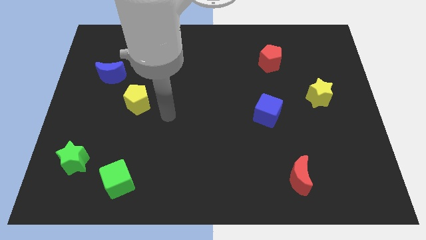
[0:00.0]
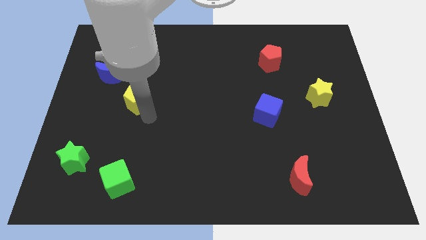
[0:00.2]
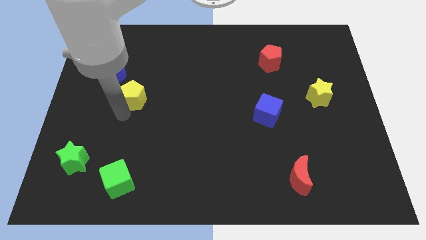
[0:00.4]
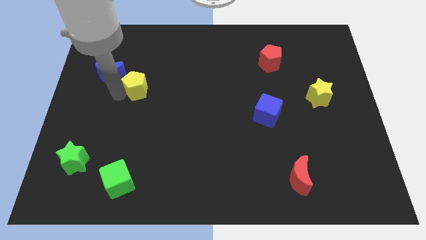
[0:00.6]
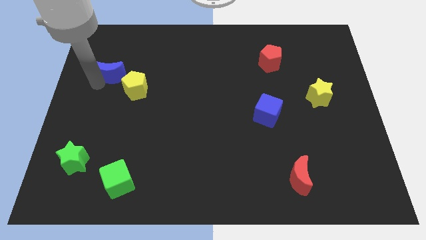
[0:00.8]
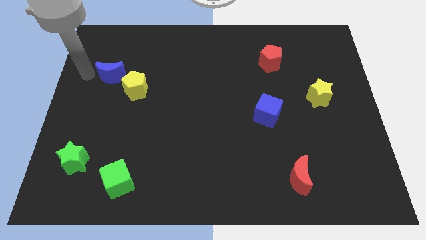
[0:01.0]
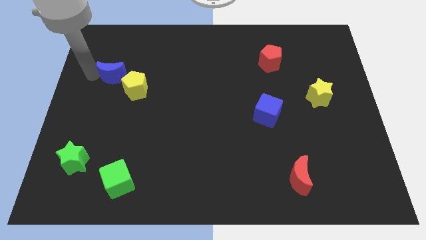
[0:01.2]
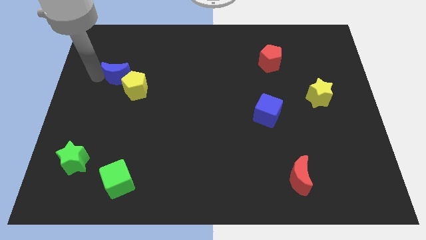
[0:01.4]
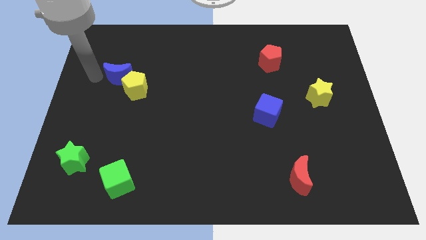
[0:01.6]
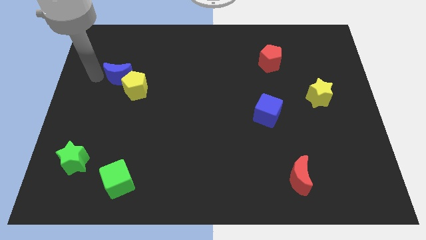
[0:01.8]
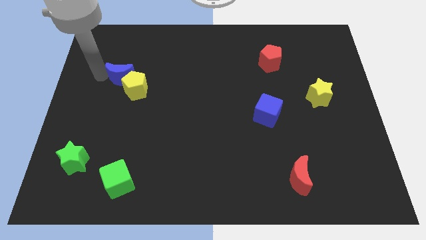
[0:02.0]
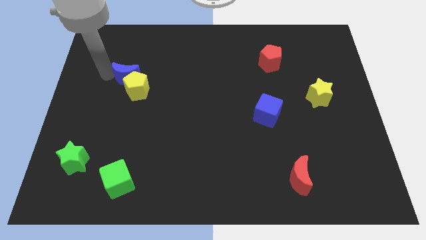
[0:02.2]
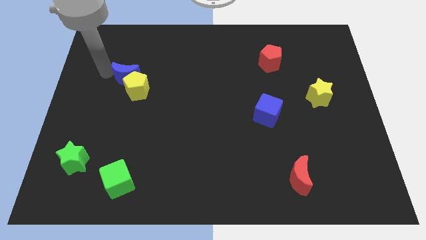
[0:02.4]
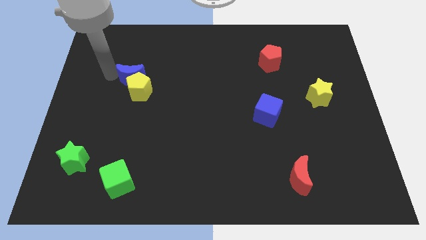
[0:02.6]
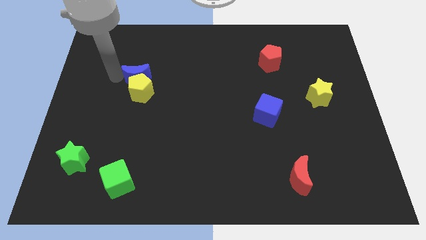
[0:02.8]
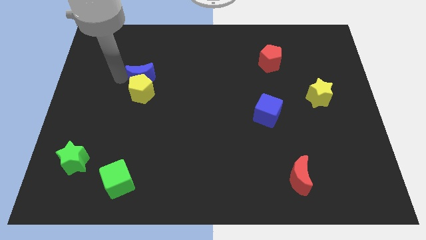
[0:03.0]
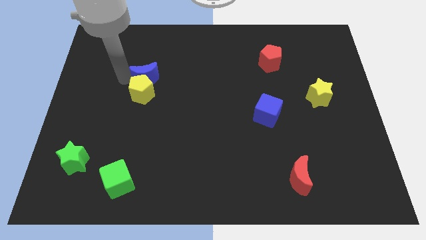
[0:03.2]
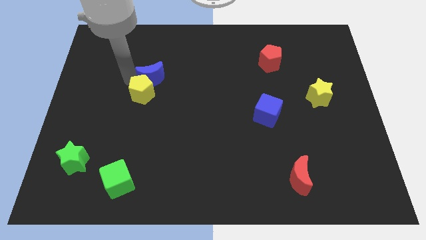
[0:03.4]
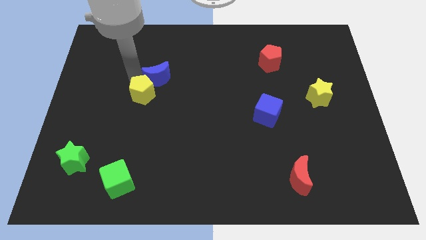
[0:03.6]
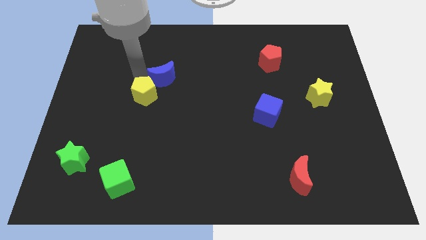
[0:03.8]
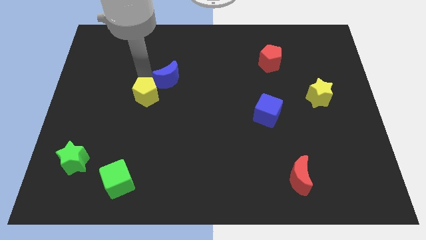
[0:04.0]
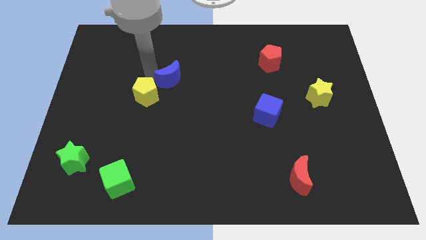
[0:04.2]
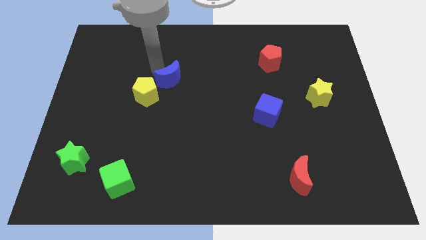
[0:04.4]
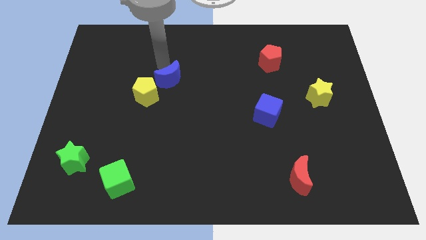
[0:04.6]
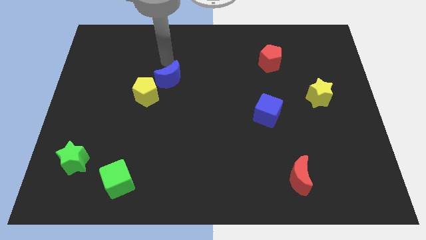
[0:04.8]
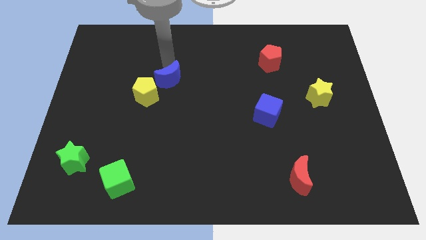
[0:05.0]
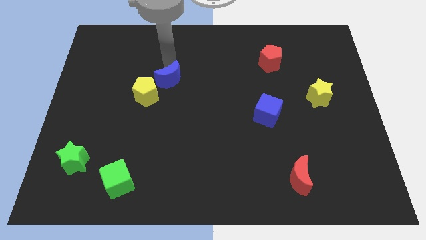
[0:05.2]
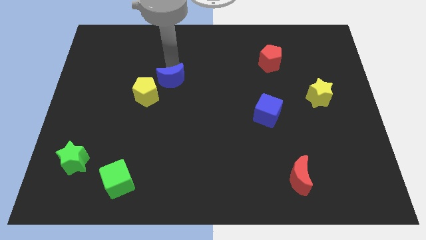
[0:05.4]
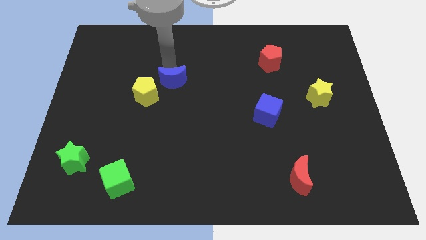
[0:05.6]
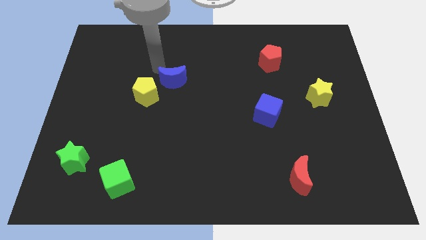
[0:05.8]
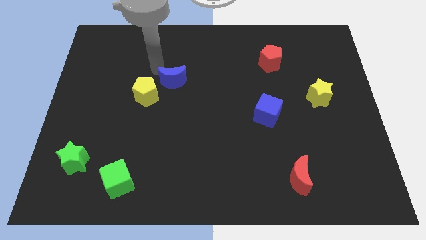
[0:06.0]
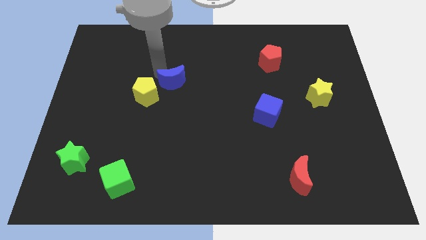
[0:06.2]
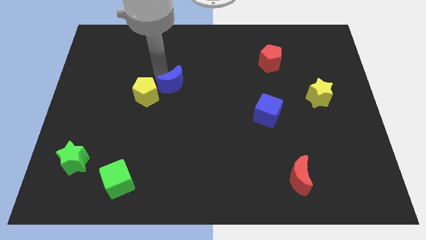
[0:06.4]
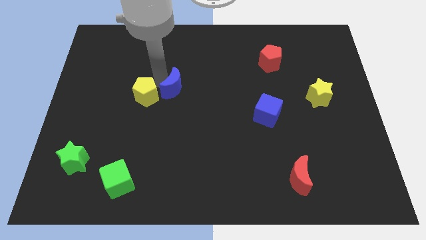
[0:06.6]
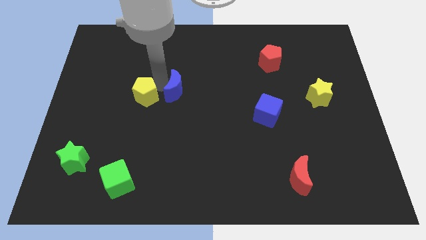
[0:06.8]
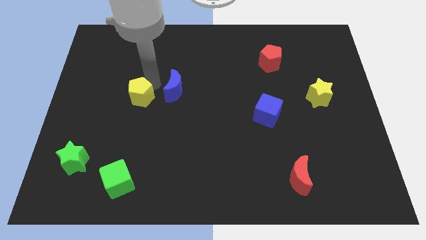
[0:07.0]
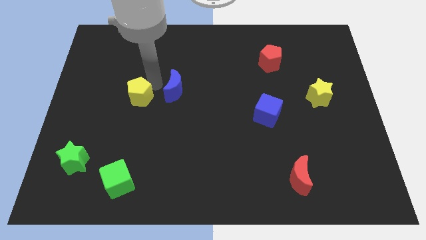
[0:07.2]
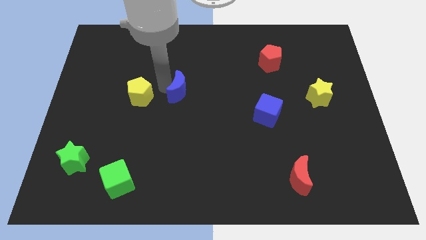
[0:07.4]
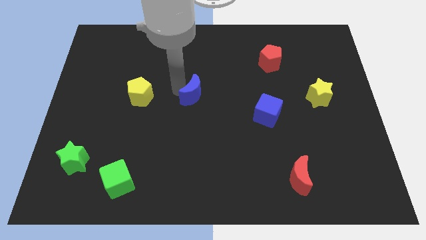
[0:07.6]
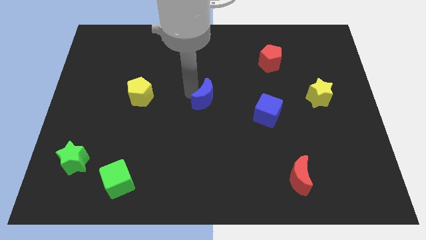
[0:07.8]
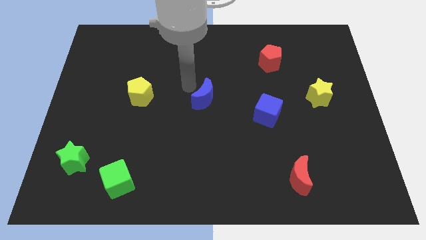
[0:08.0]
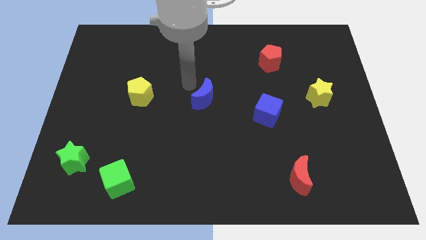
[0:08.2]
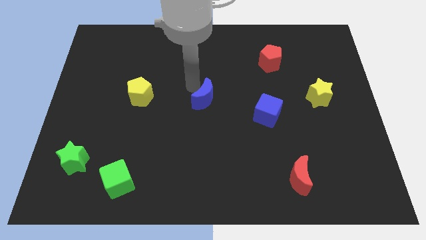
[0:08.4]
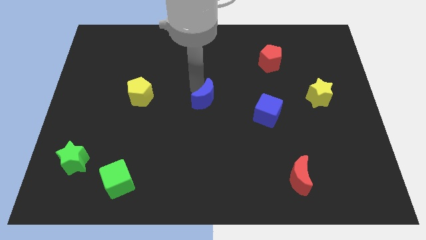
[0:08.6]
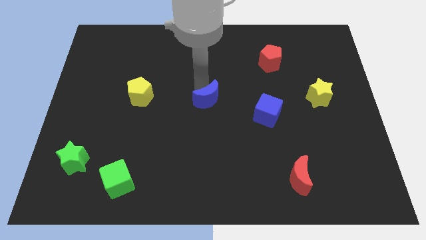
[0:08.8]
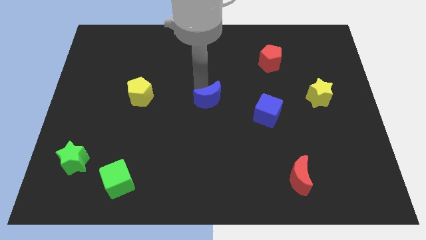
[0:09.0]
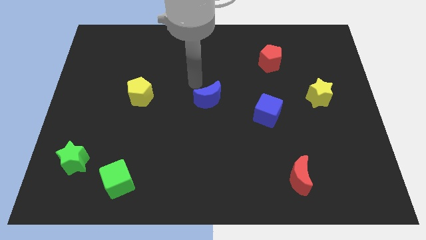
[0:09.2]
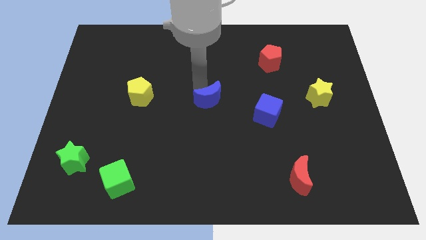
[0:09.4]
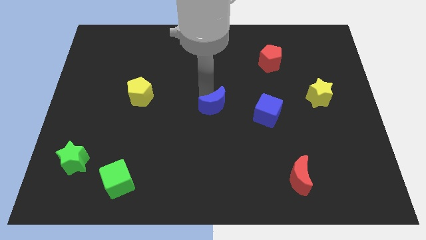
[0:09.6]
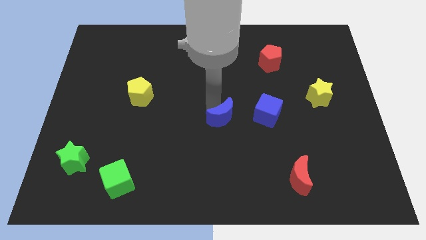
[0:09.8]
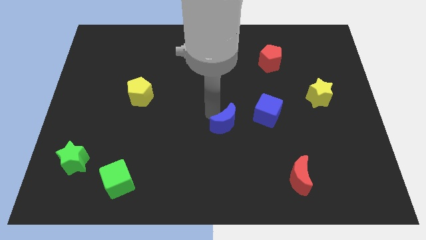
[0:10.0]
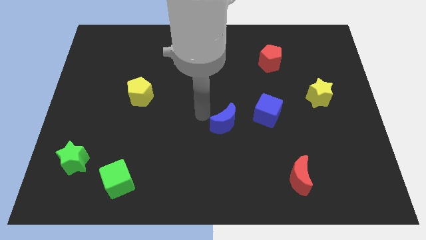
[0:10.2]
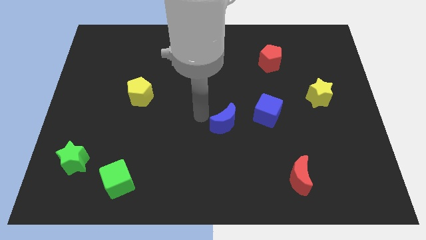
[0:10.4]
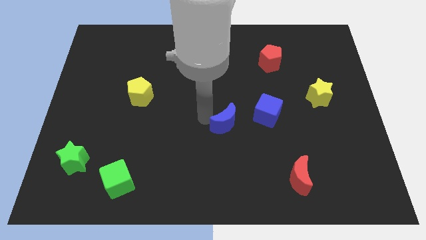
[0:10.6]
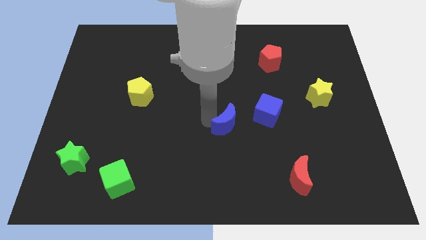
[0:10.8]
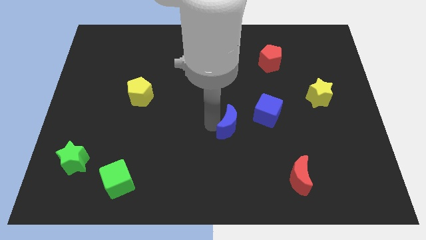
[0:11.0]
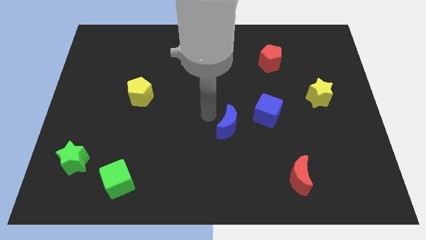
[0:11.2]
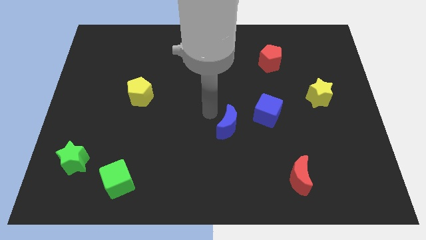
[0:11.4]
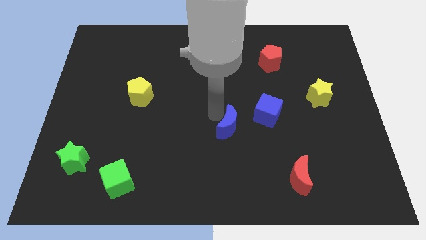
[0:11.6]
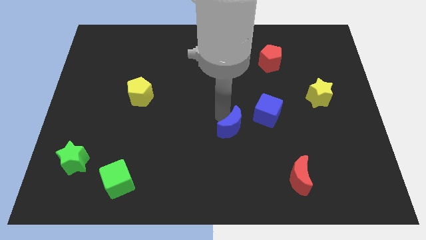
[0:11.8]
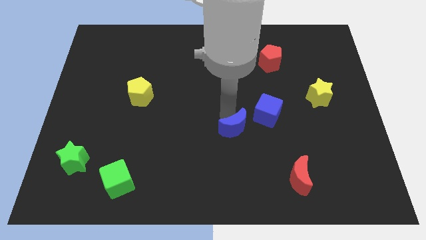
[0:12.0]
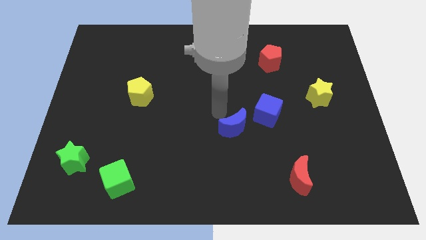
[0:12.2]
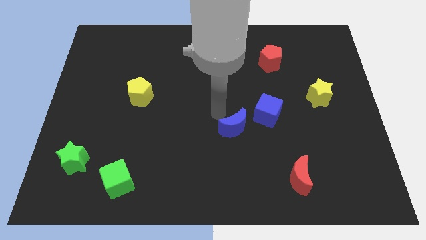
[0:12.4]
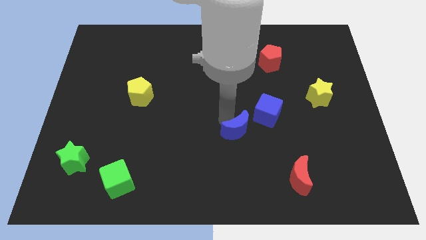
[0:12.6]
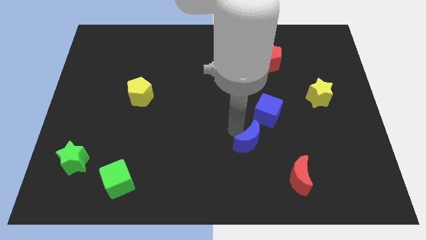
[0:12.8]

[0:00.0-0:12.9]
move the blue moon below the blue cube

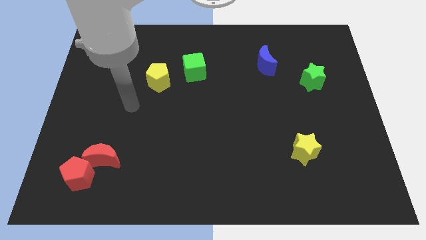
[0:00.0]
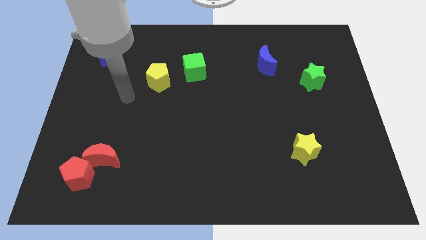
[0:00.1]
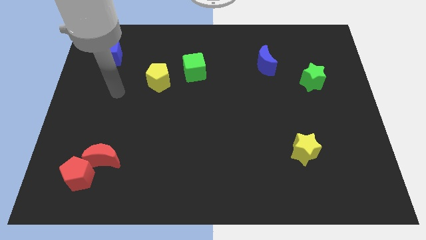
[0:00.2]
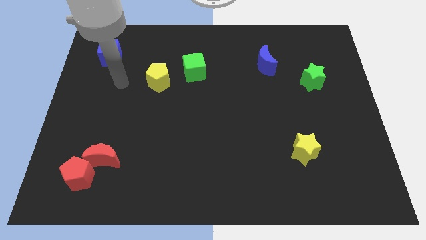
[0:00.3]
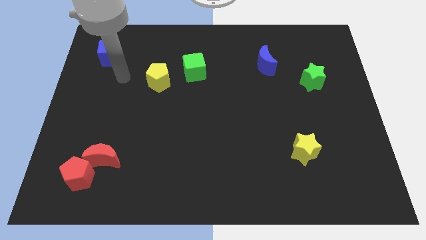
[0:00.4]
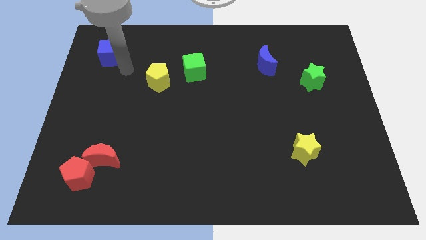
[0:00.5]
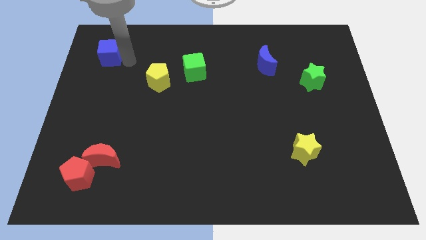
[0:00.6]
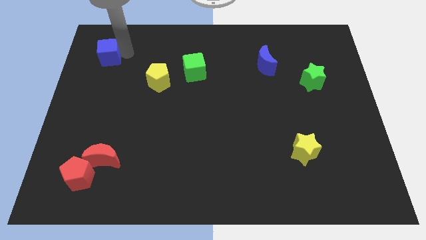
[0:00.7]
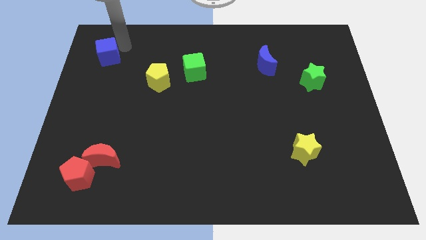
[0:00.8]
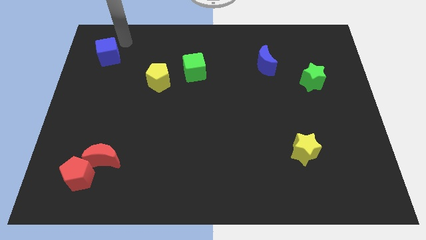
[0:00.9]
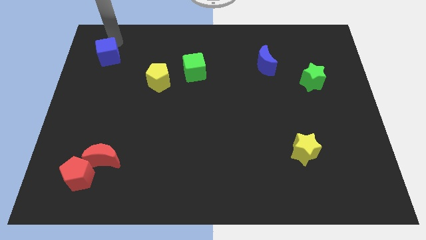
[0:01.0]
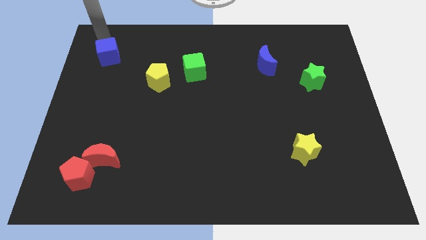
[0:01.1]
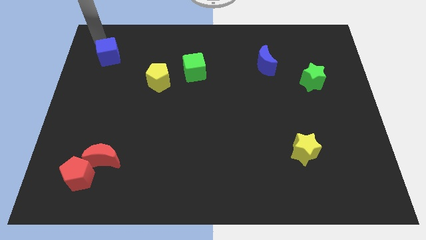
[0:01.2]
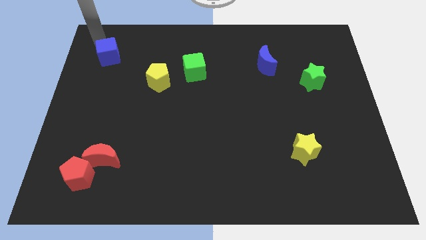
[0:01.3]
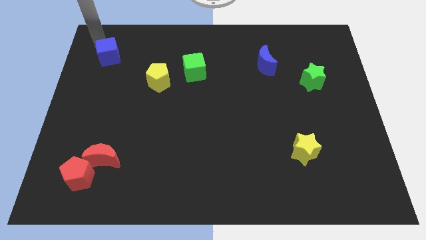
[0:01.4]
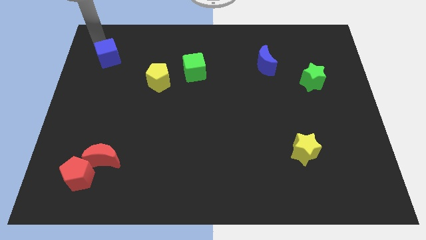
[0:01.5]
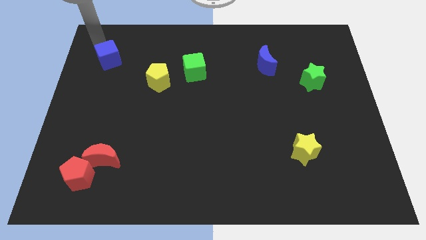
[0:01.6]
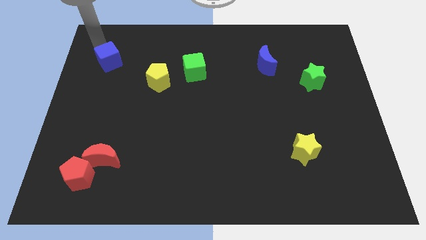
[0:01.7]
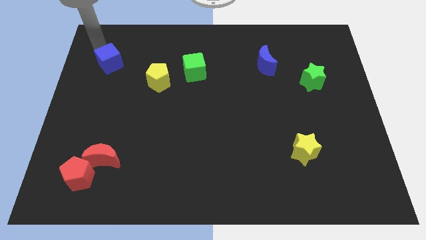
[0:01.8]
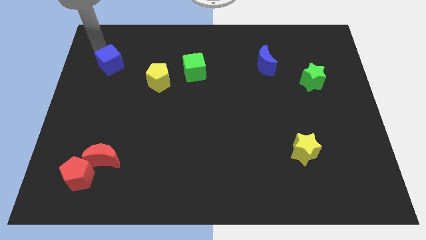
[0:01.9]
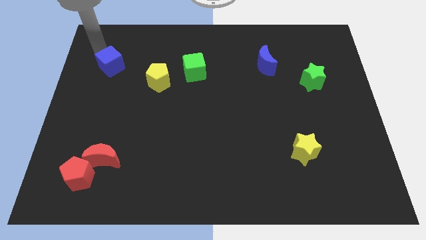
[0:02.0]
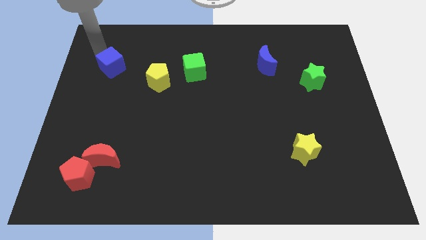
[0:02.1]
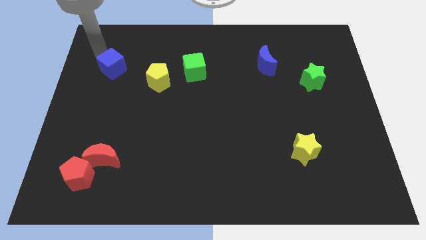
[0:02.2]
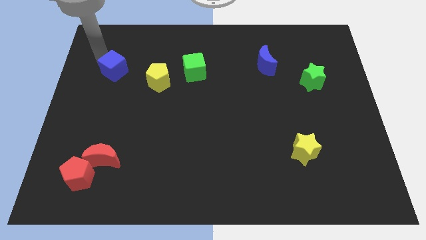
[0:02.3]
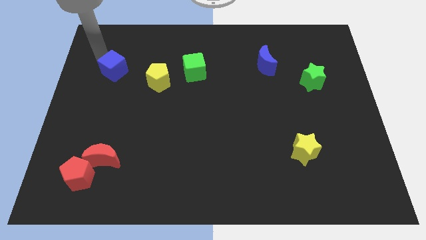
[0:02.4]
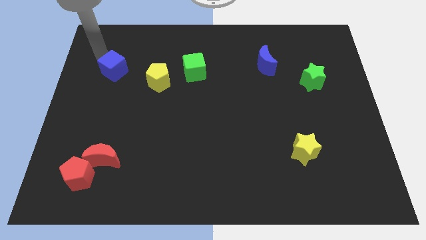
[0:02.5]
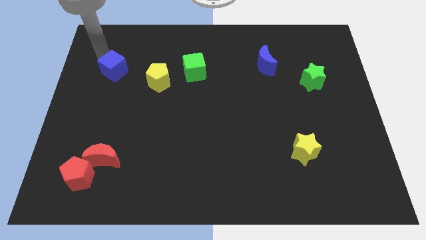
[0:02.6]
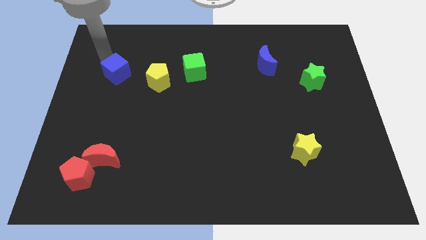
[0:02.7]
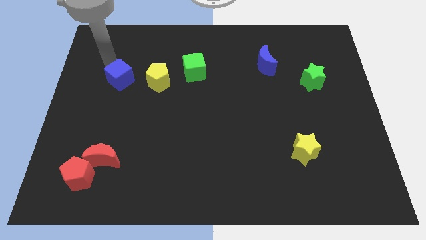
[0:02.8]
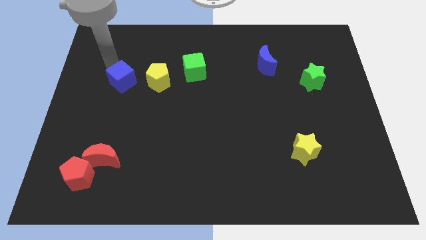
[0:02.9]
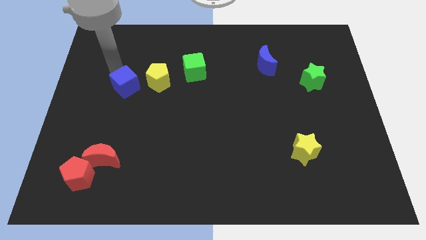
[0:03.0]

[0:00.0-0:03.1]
push the blue cube diagonally down and to the left of the yellow pentagon
